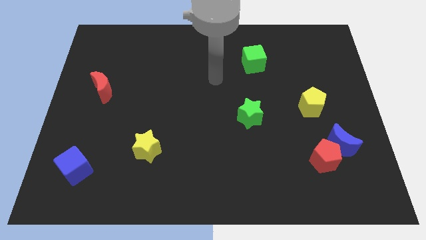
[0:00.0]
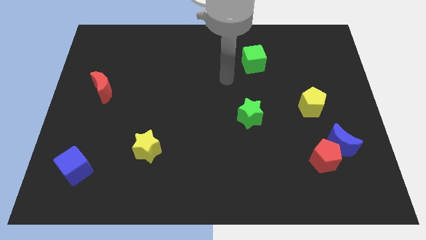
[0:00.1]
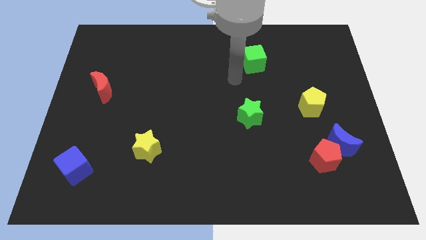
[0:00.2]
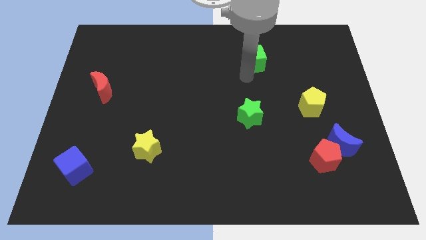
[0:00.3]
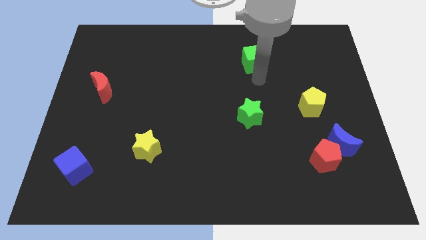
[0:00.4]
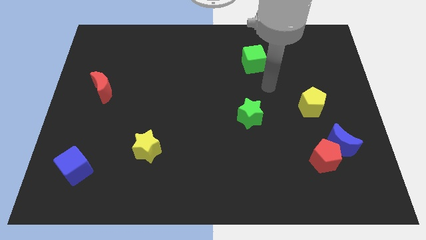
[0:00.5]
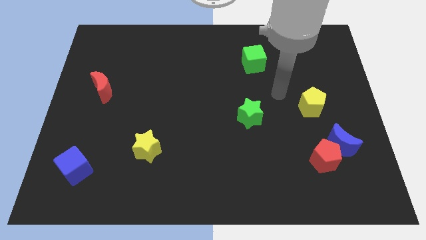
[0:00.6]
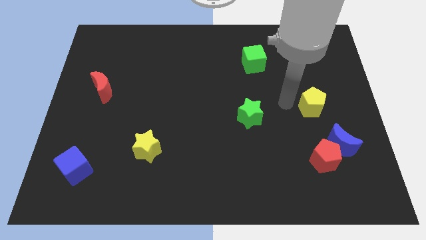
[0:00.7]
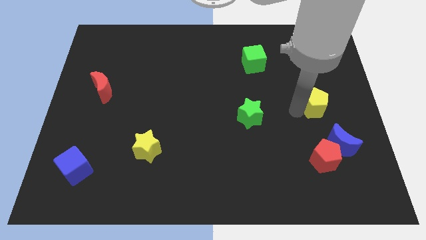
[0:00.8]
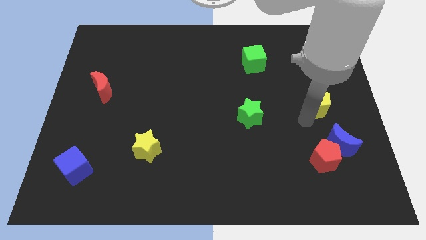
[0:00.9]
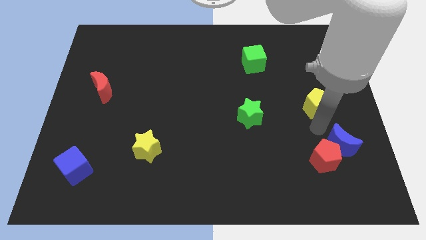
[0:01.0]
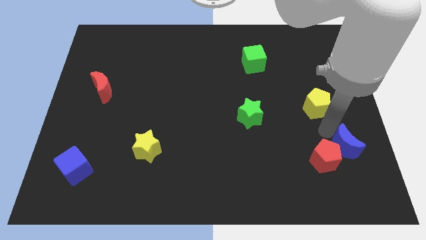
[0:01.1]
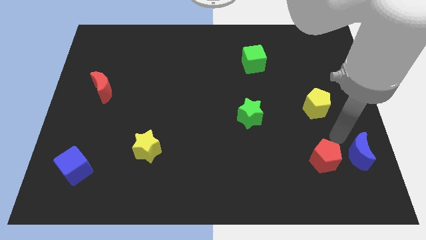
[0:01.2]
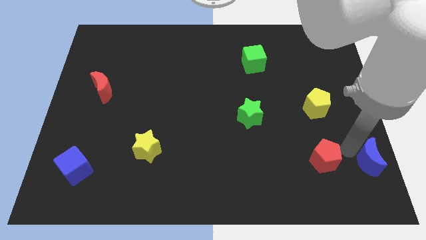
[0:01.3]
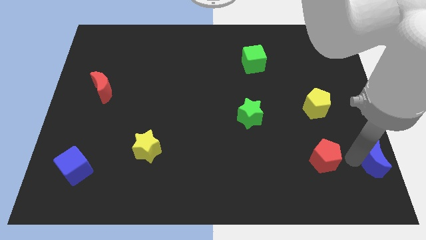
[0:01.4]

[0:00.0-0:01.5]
separate the red pentagon from the blue moon

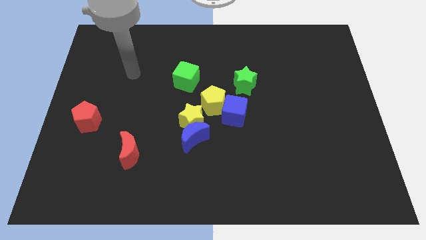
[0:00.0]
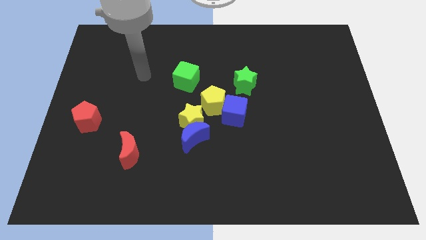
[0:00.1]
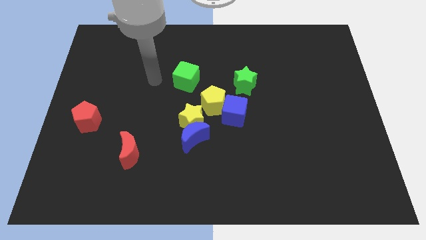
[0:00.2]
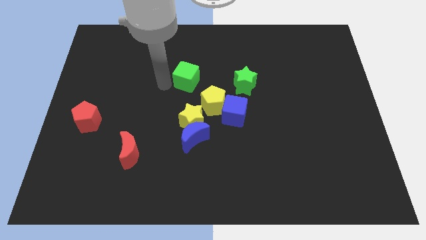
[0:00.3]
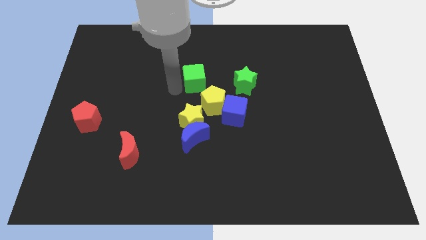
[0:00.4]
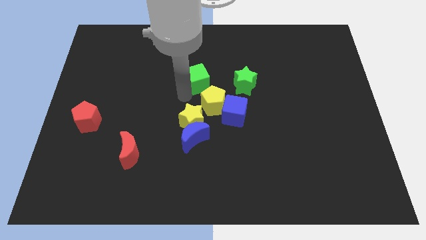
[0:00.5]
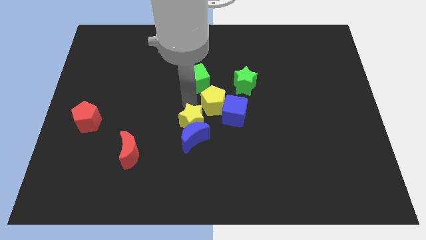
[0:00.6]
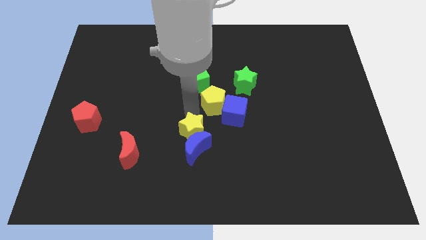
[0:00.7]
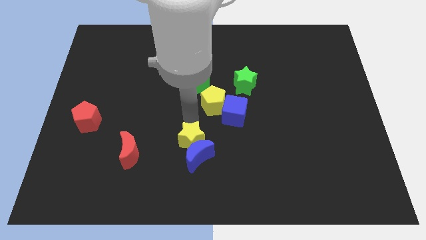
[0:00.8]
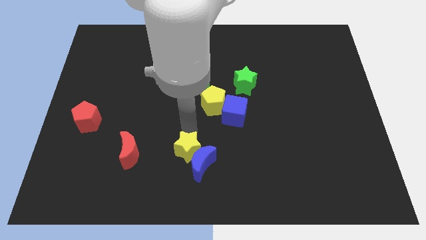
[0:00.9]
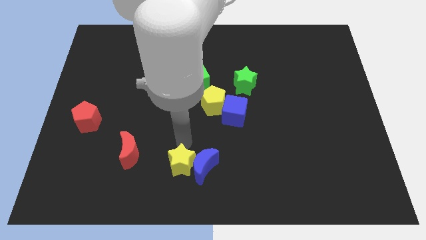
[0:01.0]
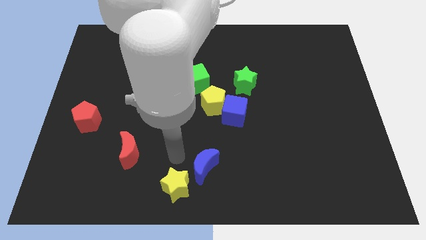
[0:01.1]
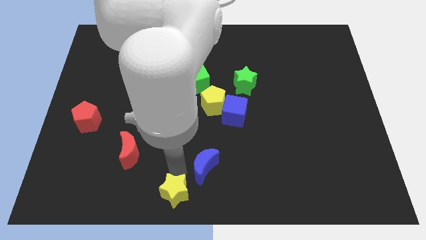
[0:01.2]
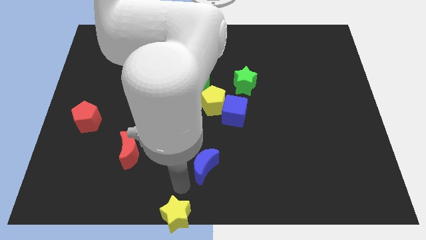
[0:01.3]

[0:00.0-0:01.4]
pull the blue moon apart from the yellow star

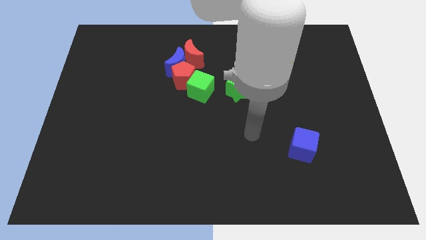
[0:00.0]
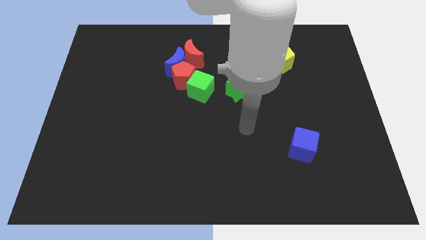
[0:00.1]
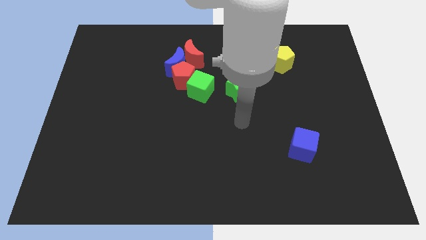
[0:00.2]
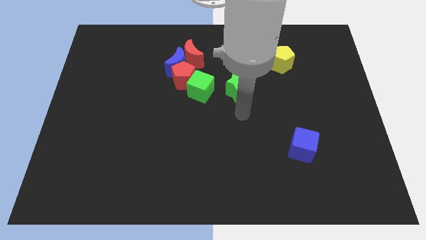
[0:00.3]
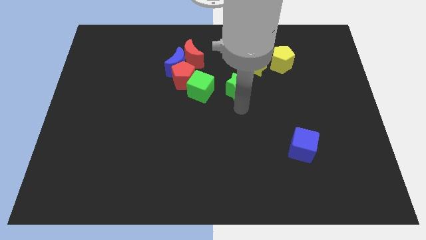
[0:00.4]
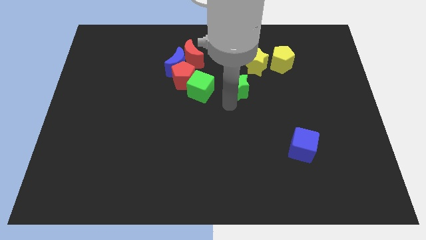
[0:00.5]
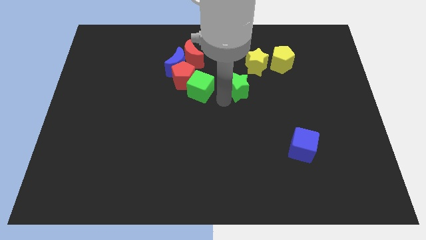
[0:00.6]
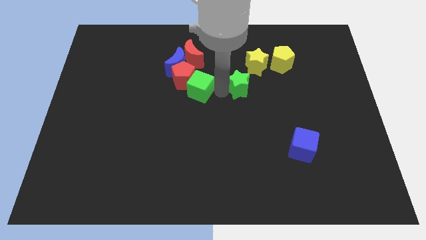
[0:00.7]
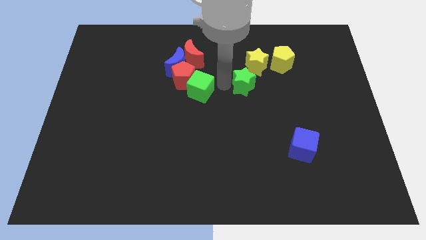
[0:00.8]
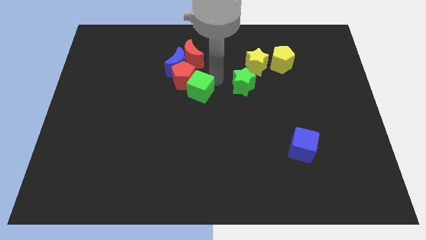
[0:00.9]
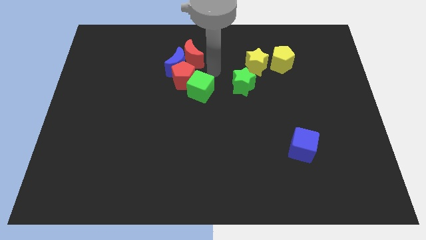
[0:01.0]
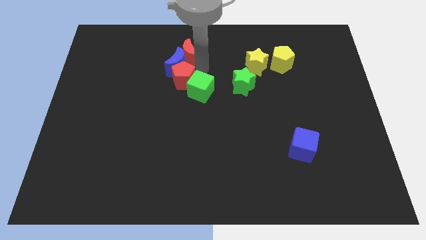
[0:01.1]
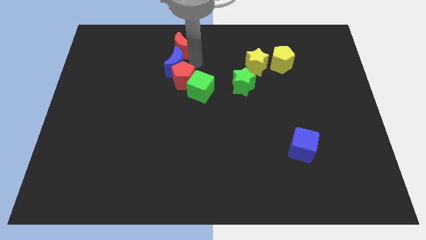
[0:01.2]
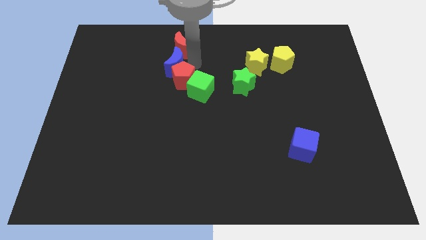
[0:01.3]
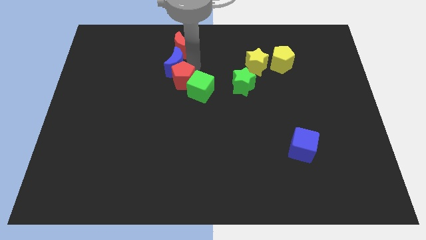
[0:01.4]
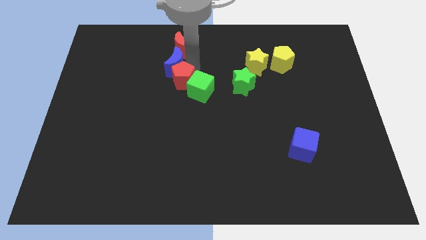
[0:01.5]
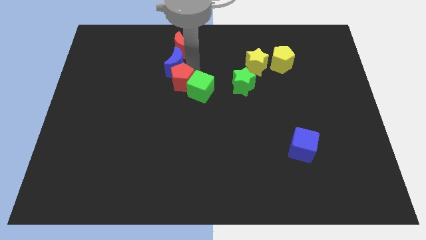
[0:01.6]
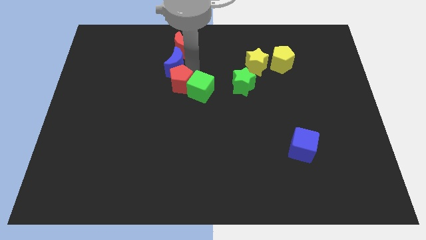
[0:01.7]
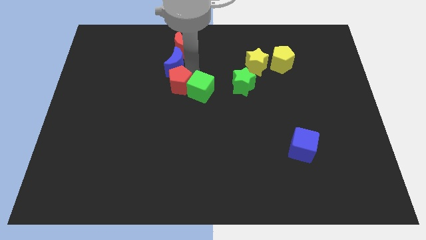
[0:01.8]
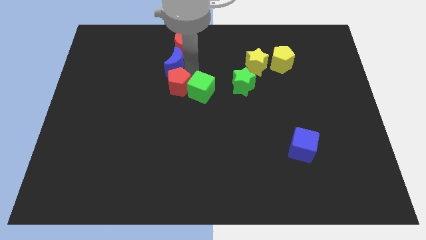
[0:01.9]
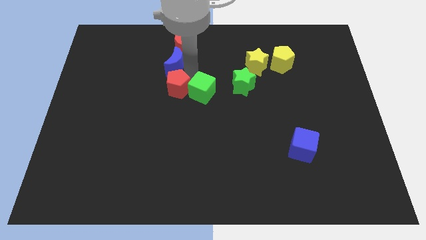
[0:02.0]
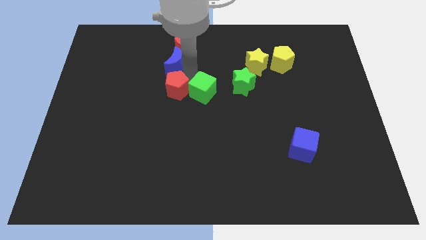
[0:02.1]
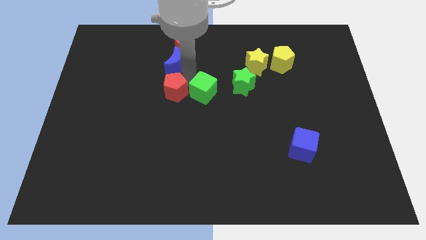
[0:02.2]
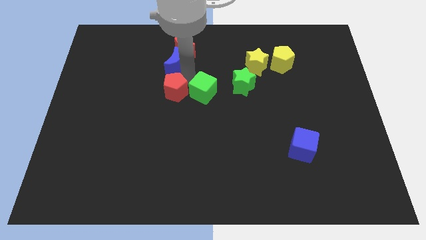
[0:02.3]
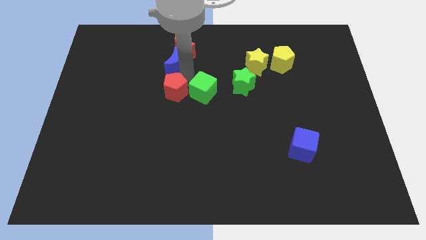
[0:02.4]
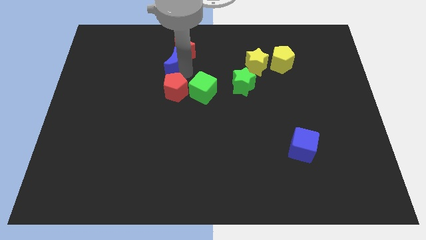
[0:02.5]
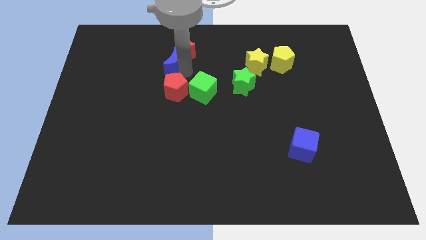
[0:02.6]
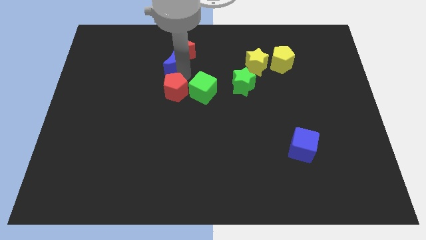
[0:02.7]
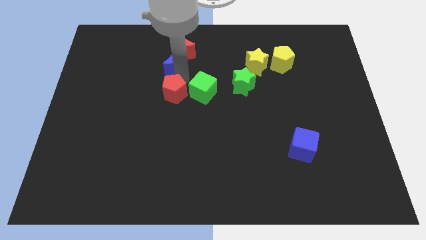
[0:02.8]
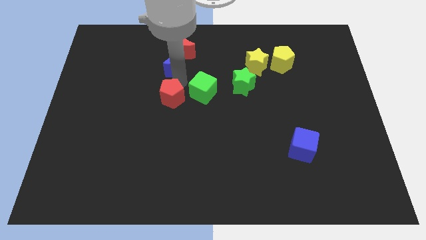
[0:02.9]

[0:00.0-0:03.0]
pull the red pentagon apart from the group of blocks

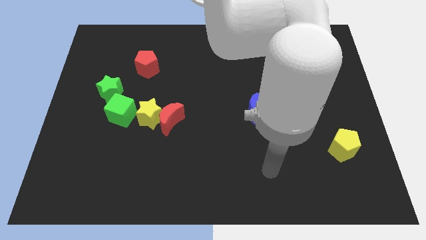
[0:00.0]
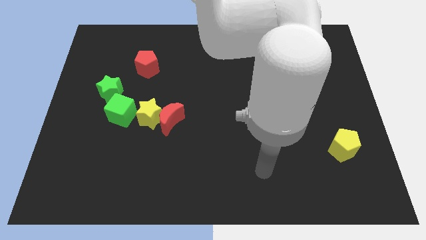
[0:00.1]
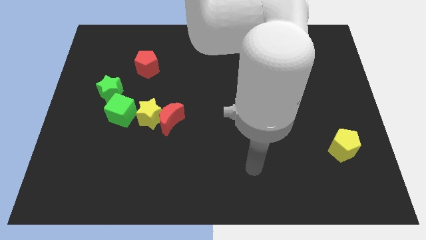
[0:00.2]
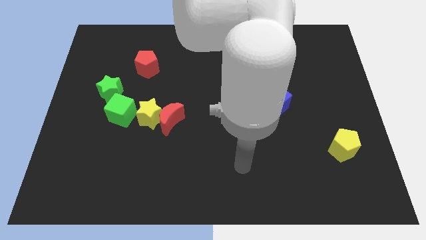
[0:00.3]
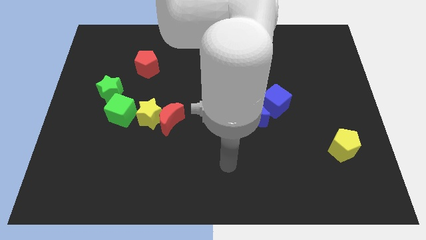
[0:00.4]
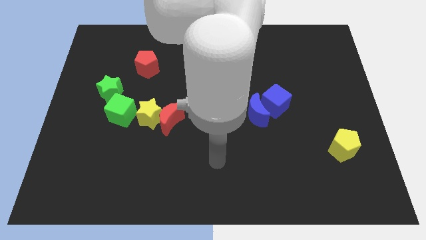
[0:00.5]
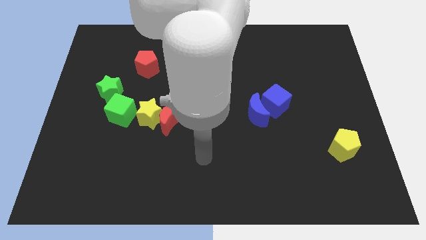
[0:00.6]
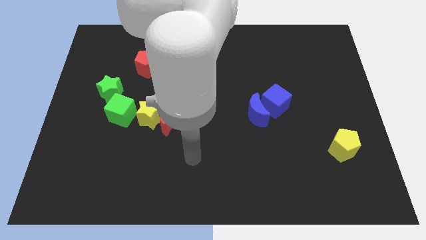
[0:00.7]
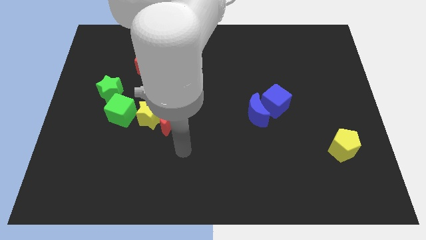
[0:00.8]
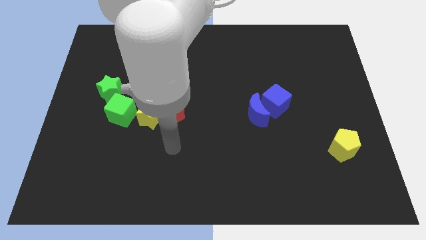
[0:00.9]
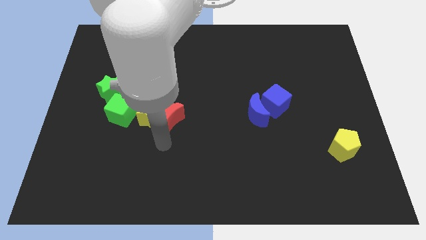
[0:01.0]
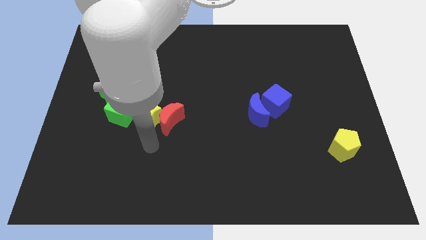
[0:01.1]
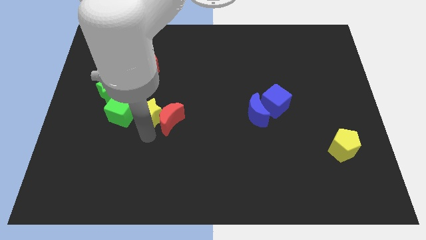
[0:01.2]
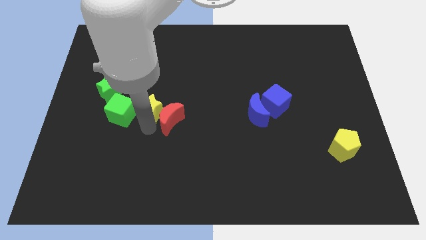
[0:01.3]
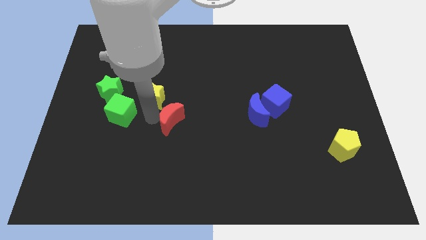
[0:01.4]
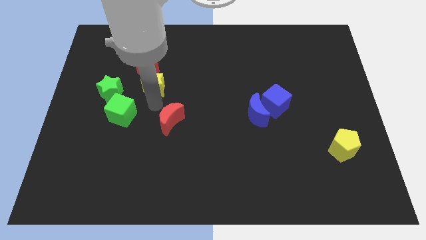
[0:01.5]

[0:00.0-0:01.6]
separate the red moon from the yellow star

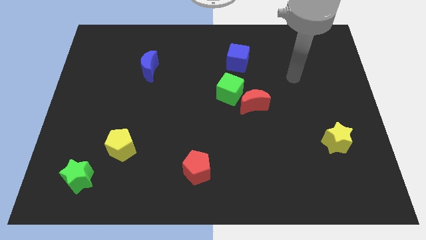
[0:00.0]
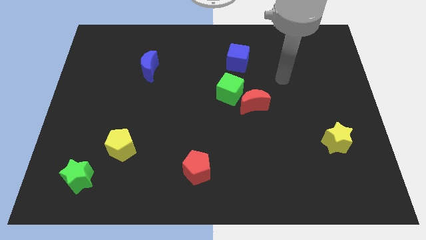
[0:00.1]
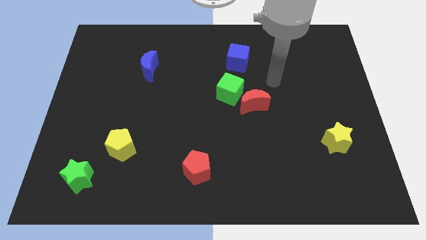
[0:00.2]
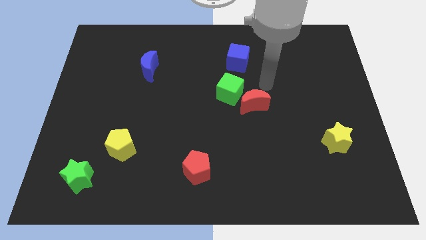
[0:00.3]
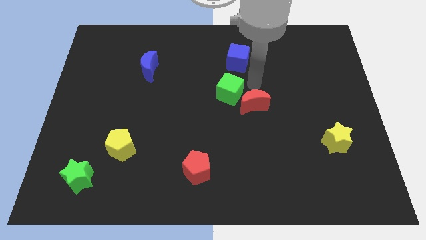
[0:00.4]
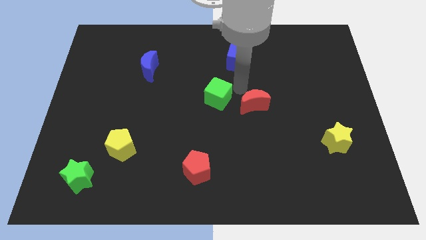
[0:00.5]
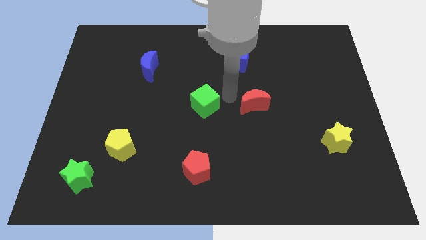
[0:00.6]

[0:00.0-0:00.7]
move the red moon away from the green cube

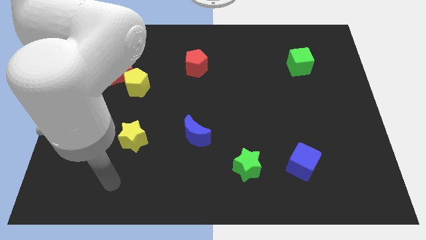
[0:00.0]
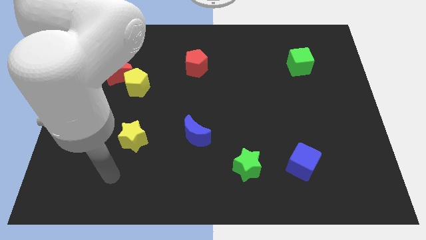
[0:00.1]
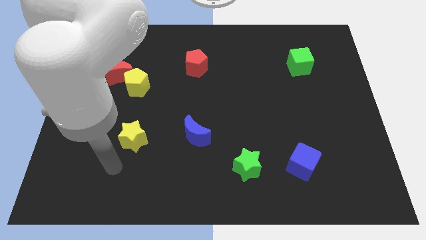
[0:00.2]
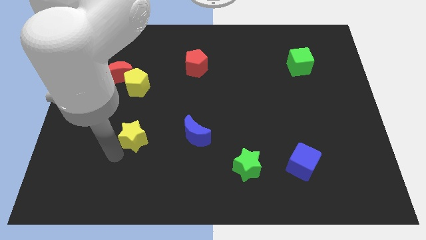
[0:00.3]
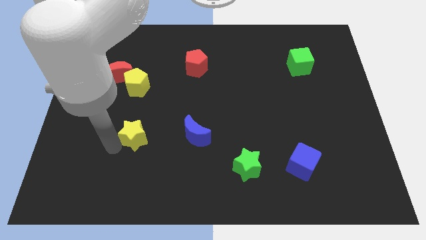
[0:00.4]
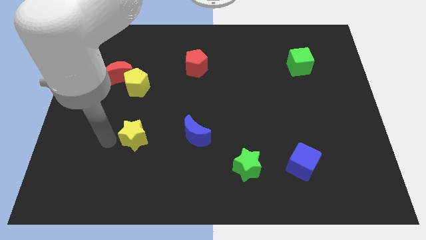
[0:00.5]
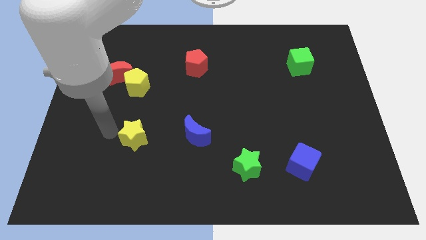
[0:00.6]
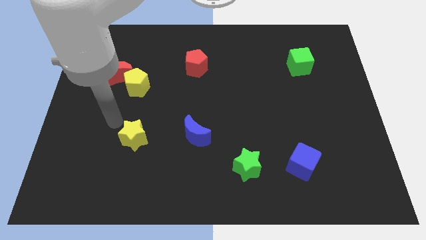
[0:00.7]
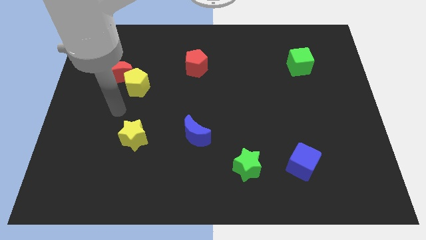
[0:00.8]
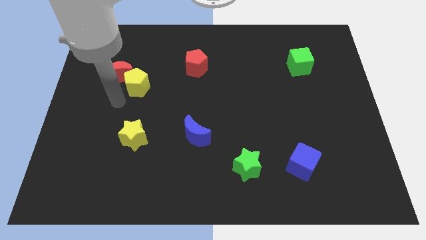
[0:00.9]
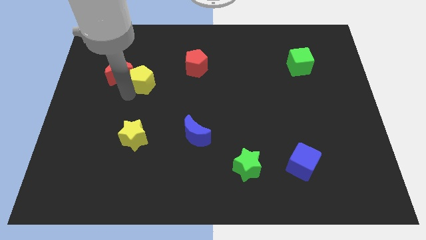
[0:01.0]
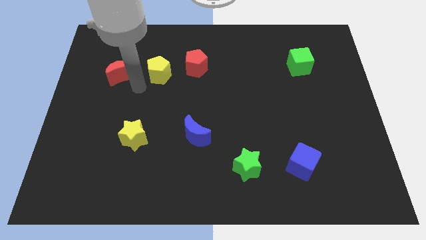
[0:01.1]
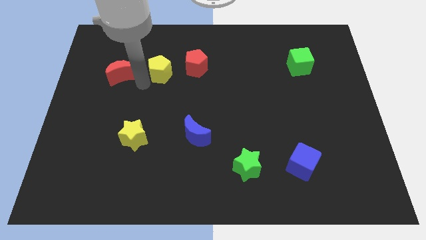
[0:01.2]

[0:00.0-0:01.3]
separate the red moon from the yellow pentagon
